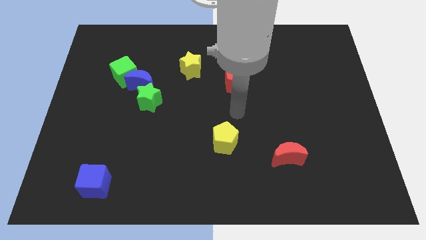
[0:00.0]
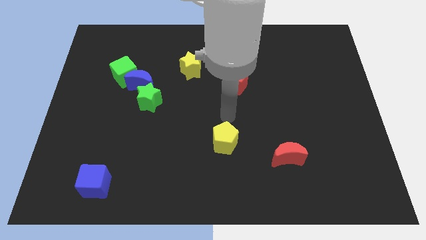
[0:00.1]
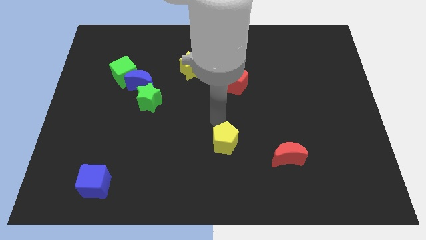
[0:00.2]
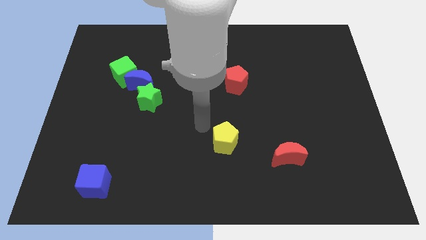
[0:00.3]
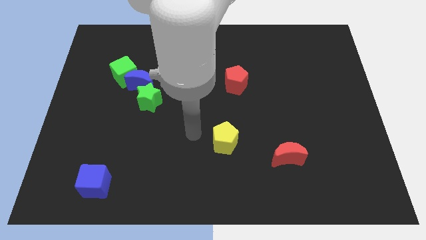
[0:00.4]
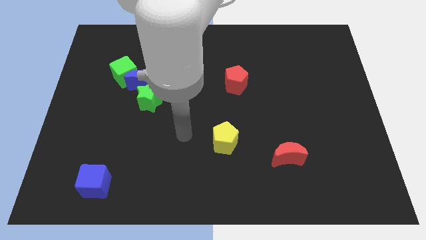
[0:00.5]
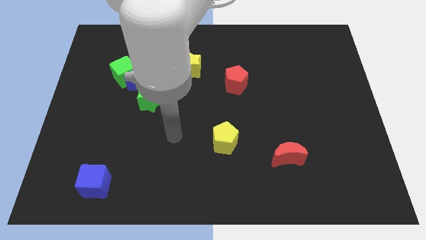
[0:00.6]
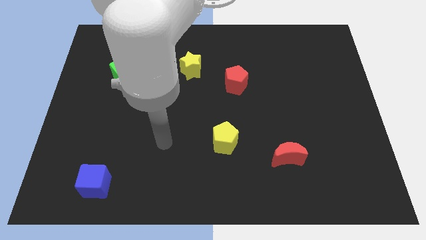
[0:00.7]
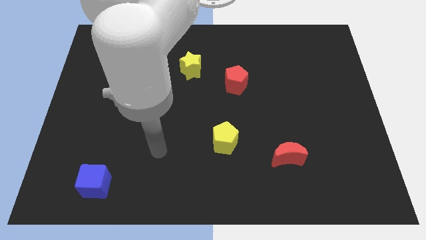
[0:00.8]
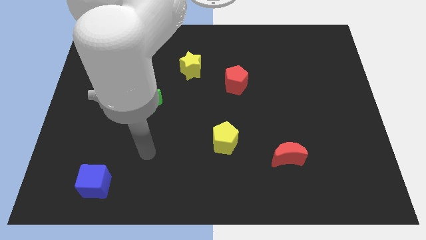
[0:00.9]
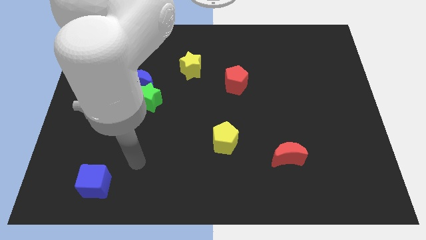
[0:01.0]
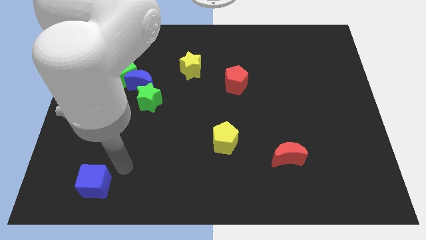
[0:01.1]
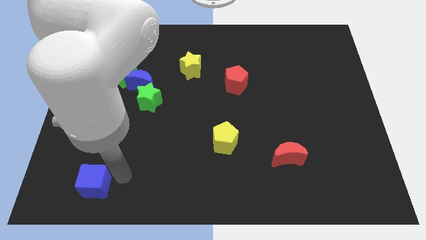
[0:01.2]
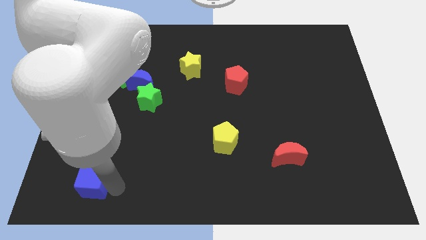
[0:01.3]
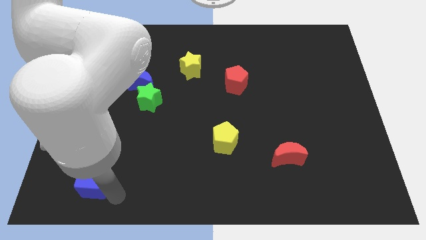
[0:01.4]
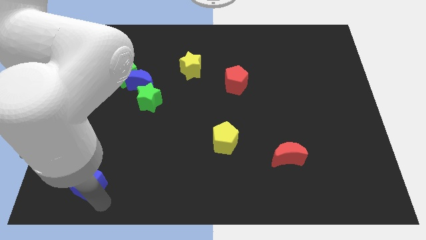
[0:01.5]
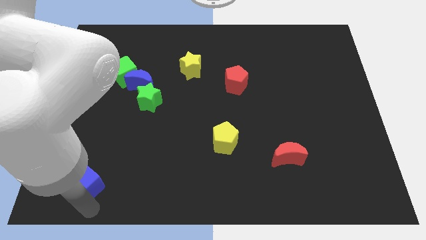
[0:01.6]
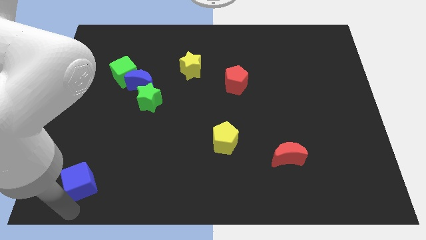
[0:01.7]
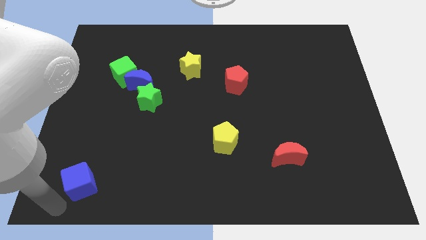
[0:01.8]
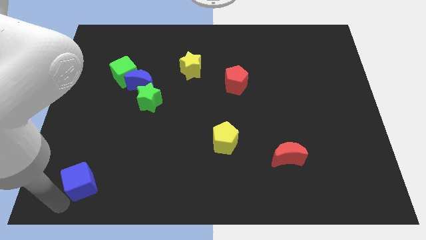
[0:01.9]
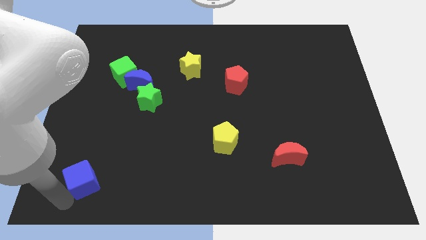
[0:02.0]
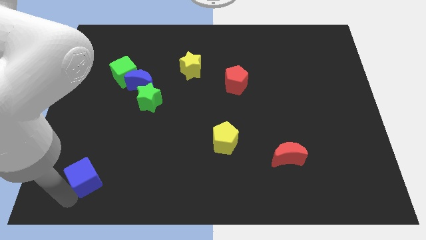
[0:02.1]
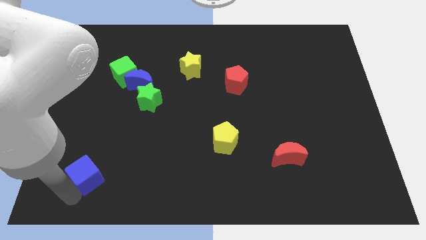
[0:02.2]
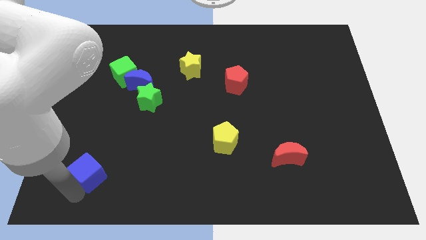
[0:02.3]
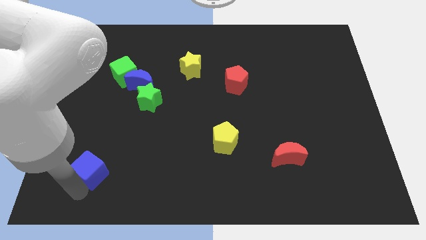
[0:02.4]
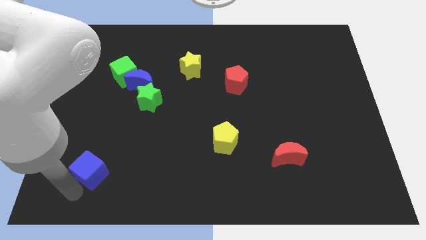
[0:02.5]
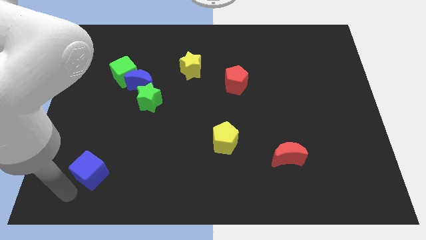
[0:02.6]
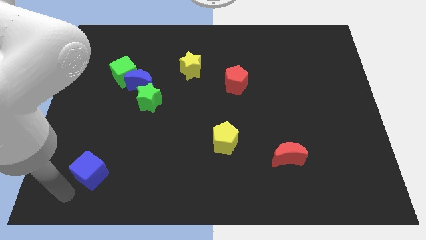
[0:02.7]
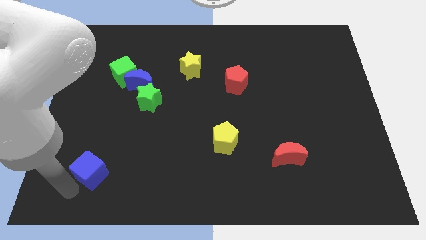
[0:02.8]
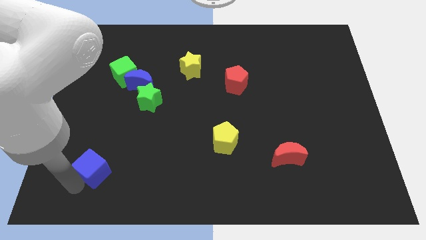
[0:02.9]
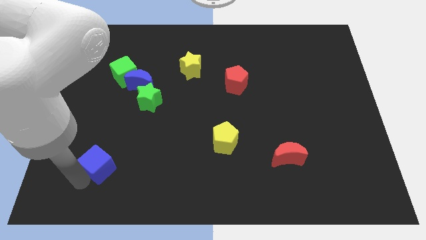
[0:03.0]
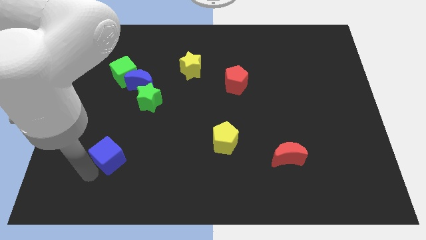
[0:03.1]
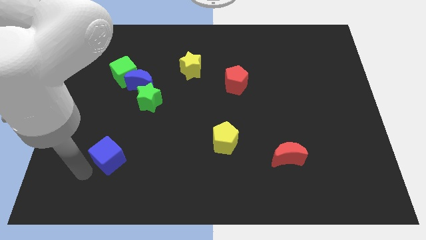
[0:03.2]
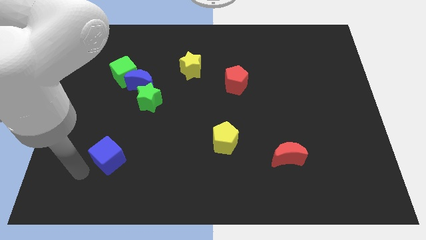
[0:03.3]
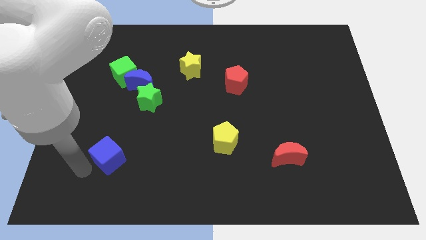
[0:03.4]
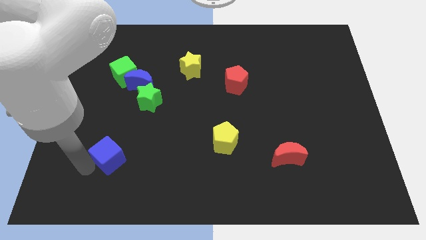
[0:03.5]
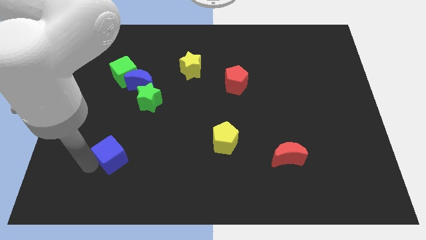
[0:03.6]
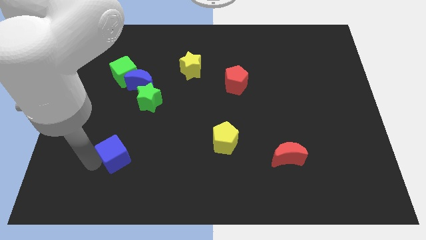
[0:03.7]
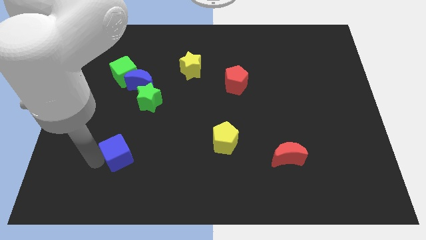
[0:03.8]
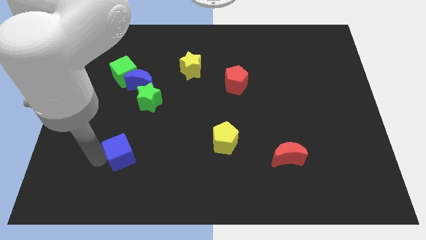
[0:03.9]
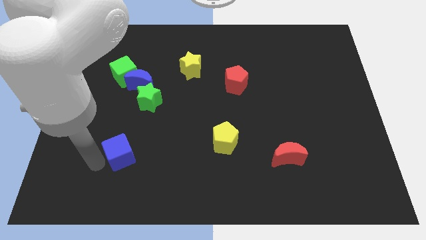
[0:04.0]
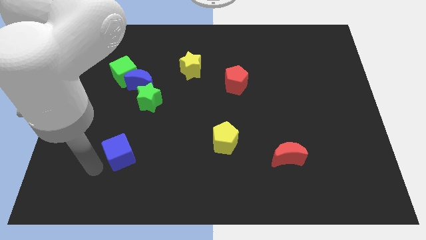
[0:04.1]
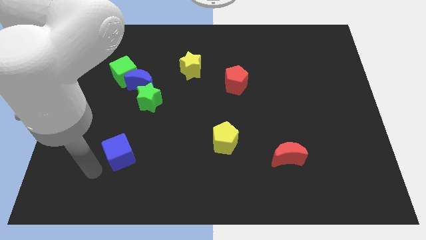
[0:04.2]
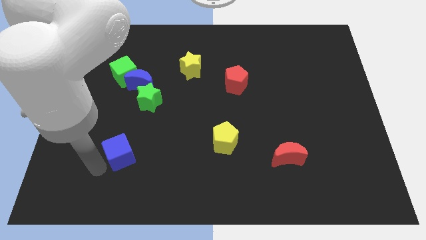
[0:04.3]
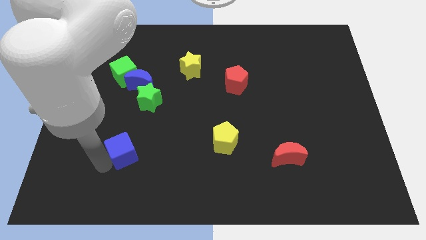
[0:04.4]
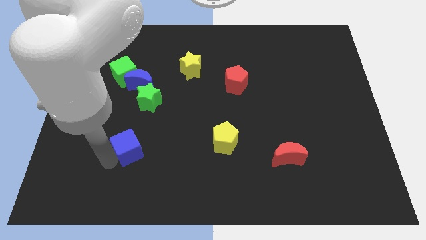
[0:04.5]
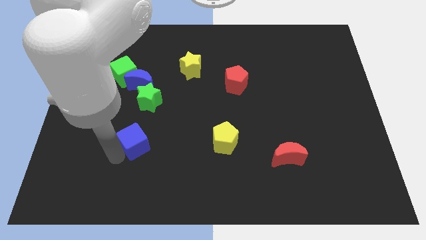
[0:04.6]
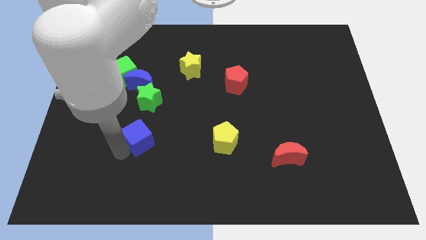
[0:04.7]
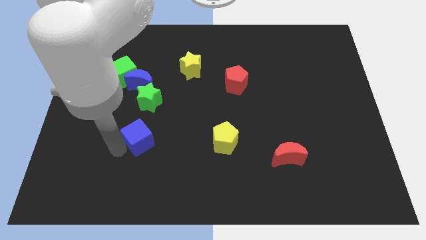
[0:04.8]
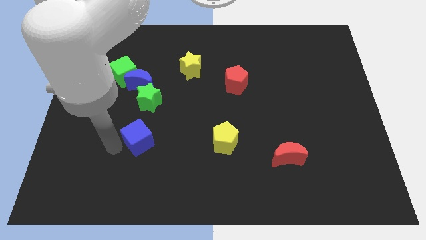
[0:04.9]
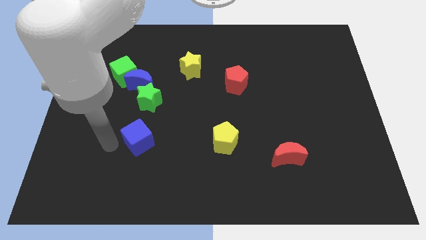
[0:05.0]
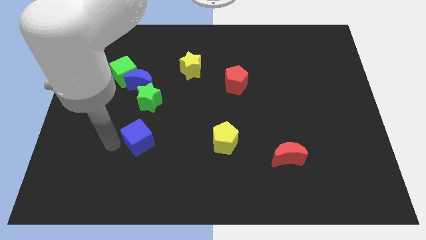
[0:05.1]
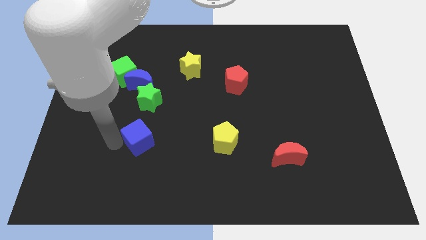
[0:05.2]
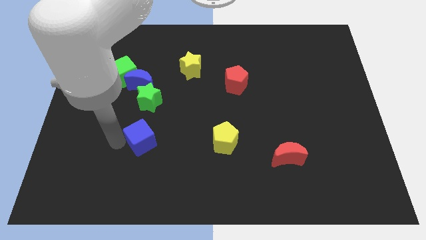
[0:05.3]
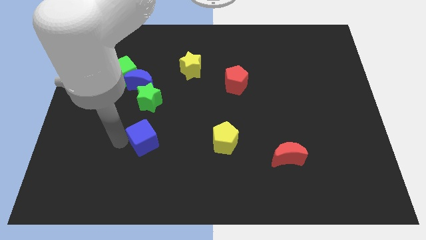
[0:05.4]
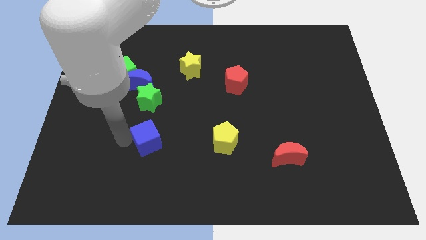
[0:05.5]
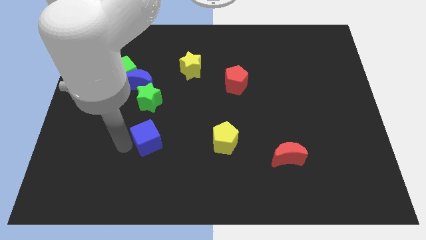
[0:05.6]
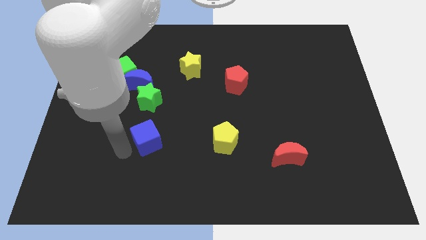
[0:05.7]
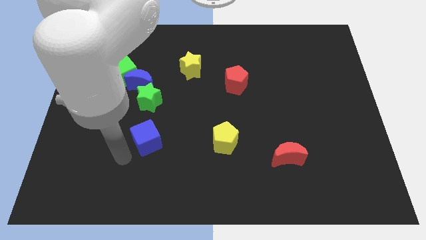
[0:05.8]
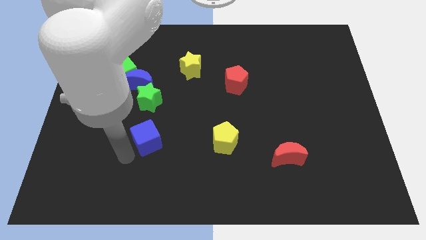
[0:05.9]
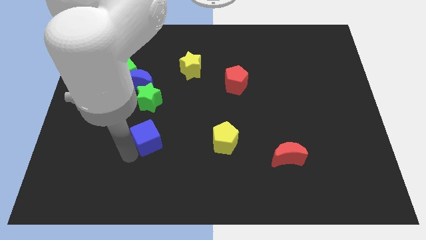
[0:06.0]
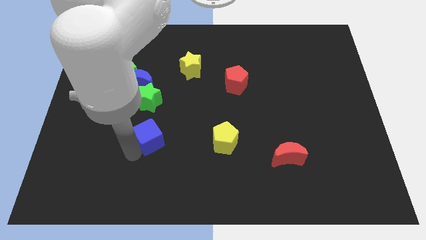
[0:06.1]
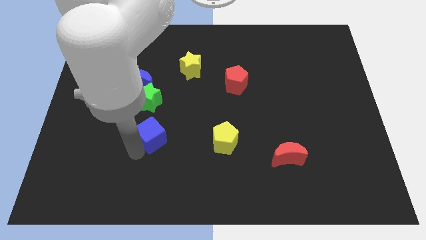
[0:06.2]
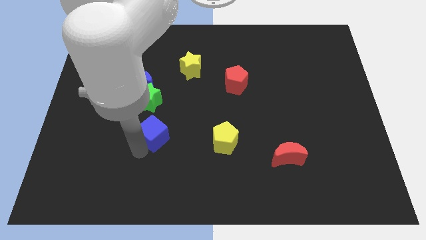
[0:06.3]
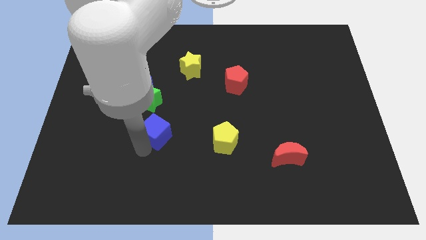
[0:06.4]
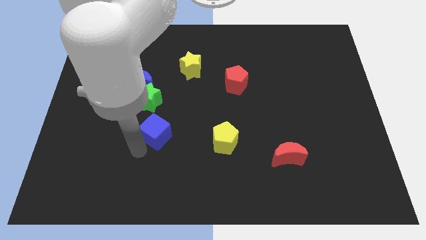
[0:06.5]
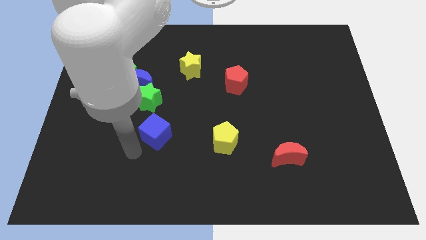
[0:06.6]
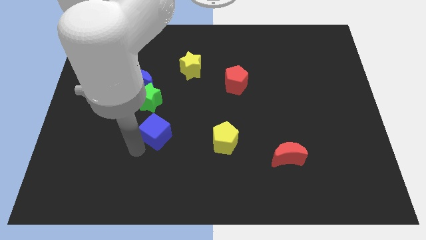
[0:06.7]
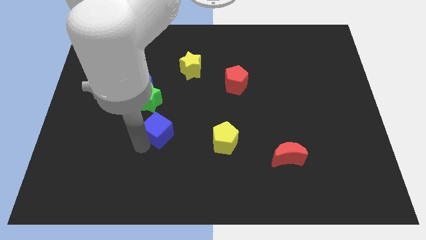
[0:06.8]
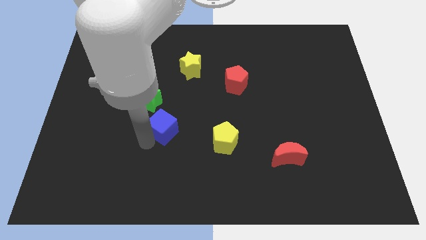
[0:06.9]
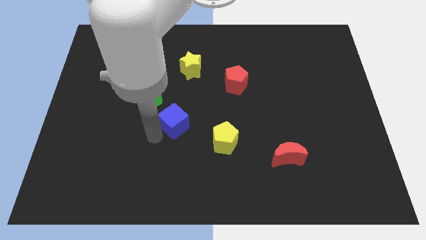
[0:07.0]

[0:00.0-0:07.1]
push the blue cube up and then to the right

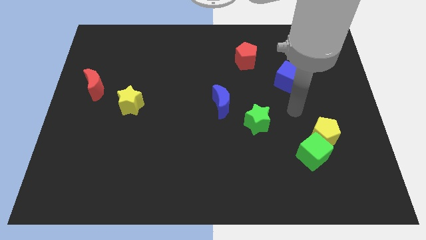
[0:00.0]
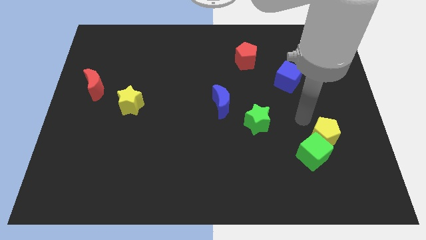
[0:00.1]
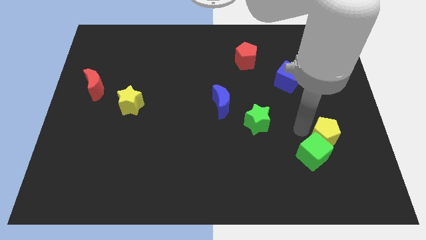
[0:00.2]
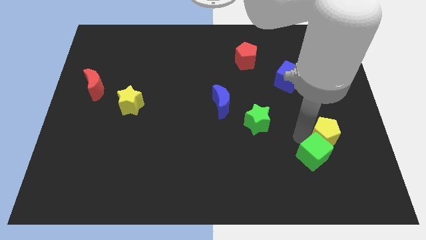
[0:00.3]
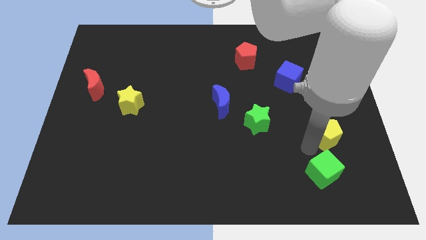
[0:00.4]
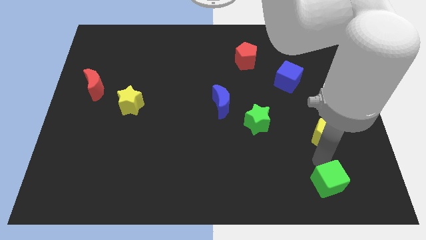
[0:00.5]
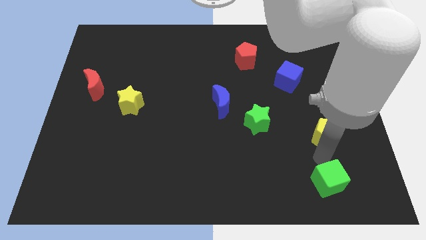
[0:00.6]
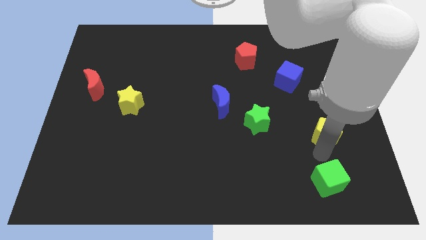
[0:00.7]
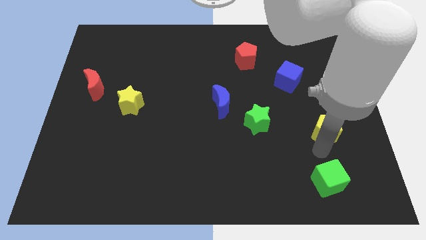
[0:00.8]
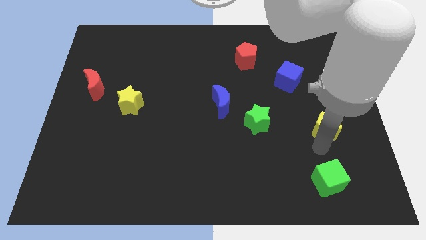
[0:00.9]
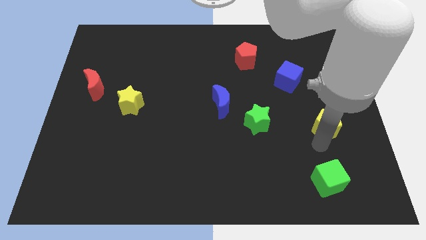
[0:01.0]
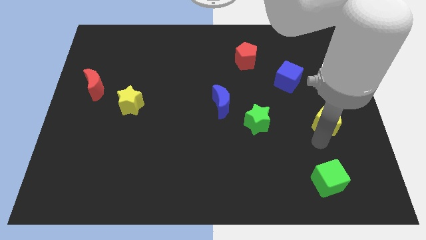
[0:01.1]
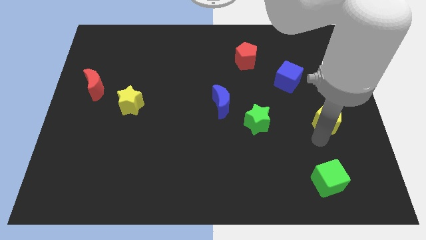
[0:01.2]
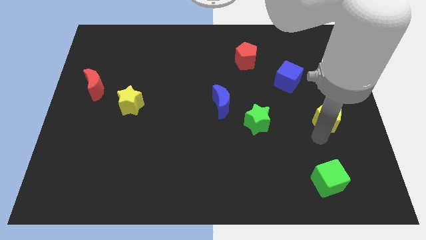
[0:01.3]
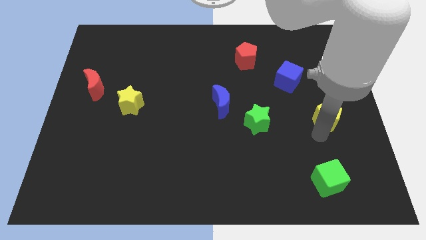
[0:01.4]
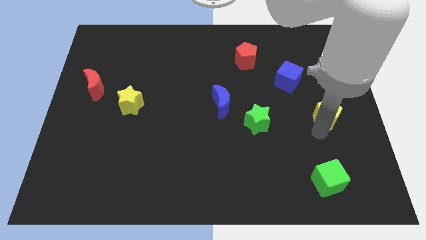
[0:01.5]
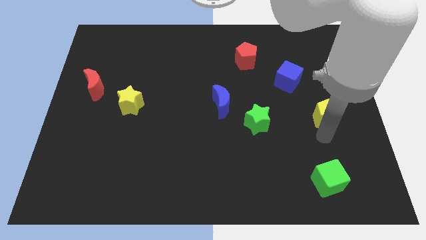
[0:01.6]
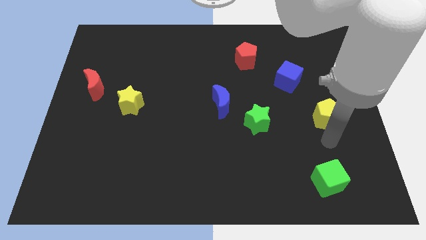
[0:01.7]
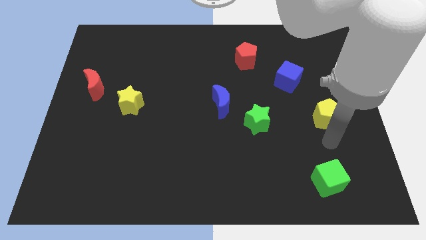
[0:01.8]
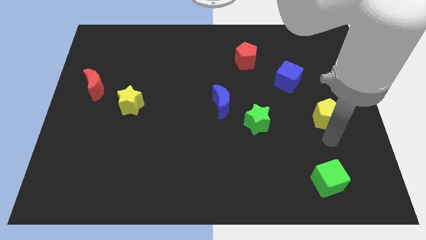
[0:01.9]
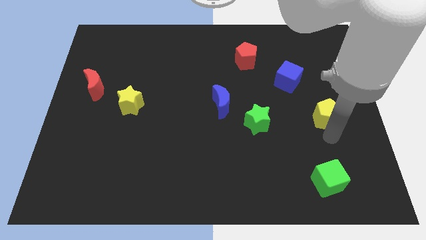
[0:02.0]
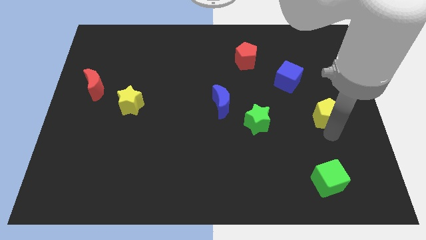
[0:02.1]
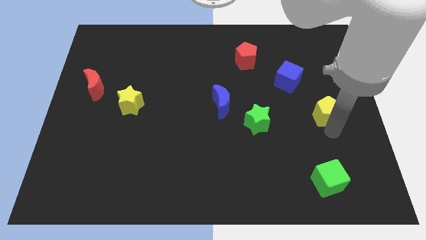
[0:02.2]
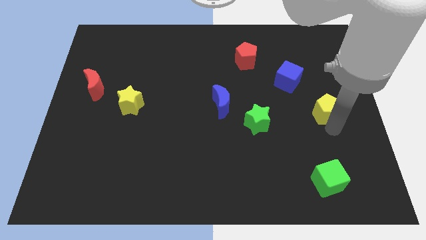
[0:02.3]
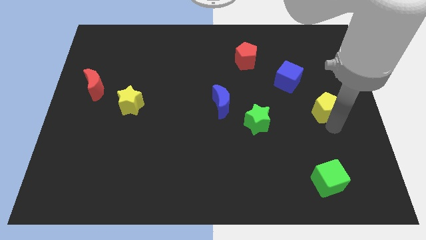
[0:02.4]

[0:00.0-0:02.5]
push the yellow pentagon upwards somewhat
